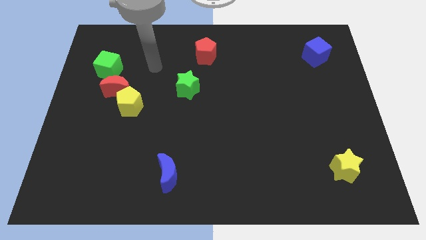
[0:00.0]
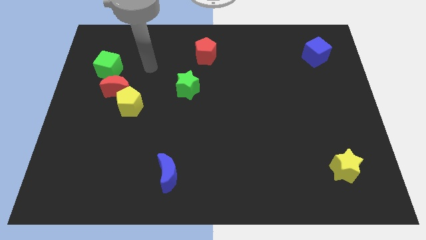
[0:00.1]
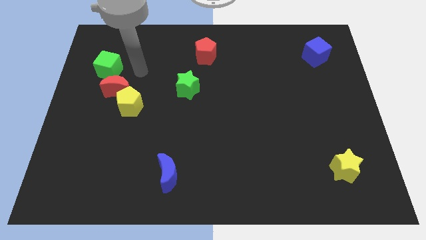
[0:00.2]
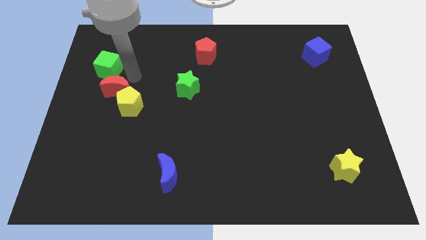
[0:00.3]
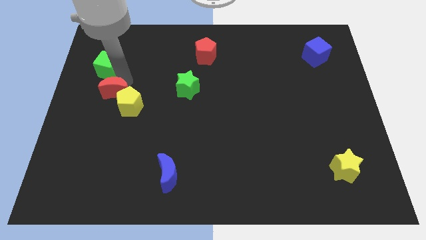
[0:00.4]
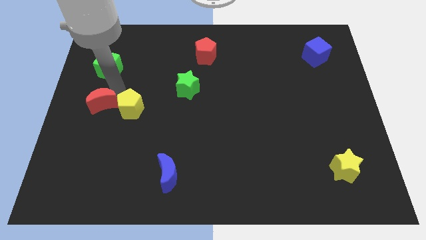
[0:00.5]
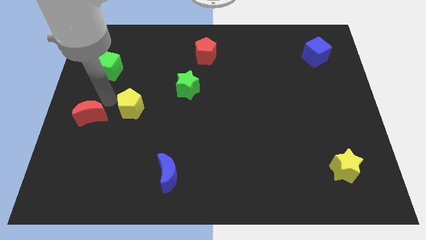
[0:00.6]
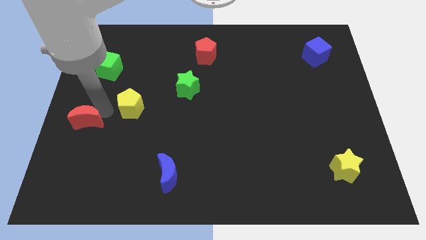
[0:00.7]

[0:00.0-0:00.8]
separate the yellow pentagon from the red moon

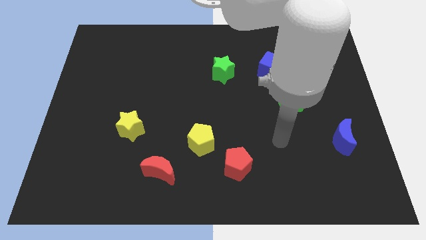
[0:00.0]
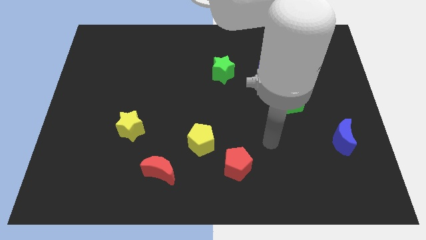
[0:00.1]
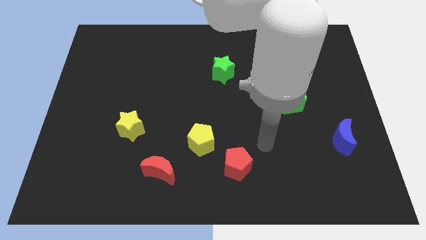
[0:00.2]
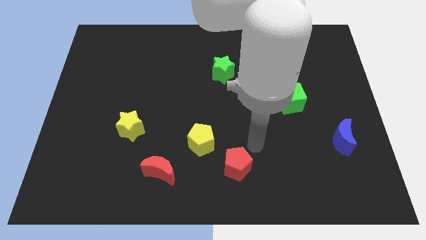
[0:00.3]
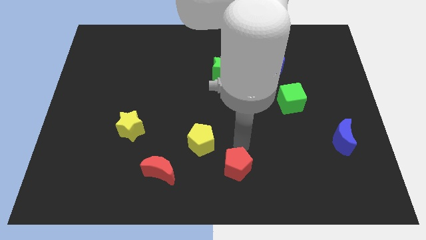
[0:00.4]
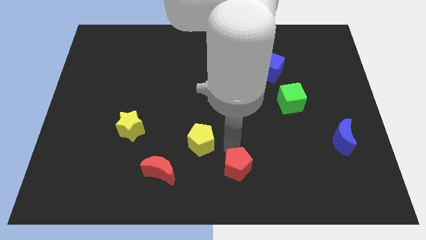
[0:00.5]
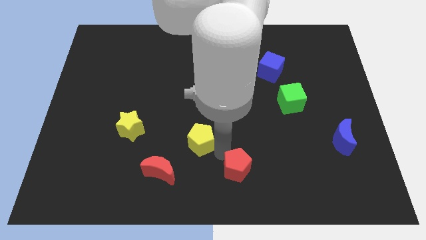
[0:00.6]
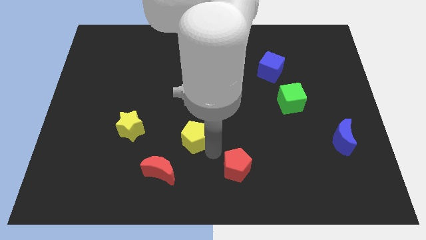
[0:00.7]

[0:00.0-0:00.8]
pull the red pentagon apart from the yellow pentagon

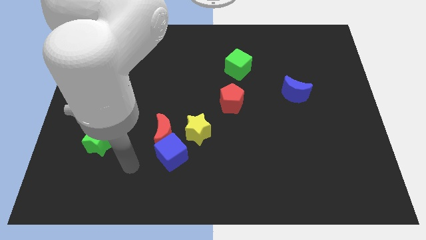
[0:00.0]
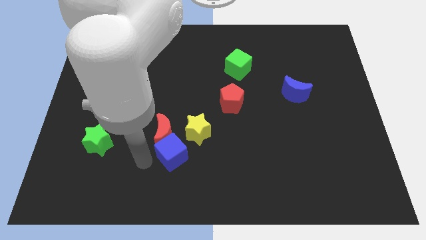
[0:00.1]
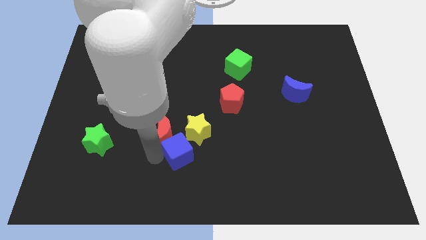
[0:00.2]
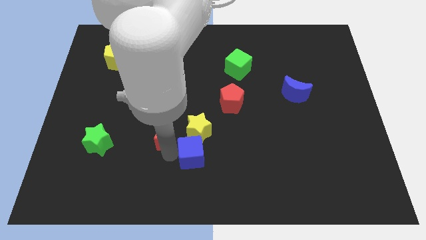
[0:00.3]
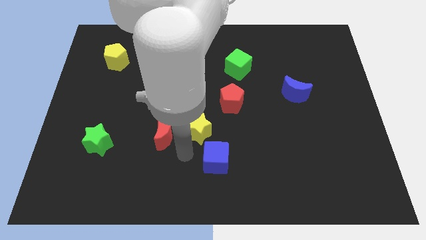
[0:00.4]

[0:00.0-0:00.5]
separate the red moon from the blue cube and yellow star

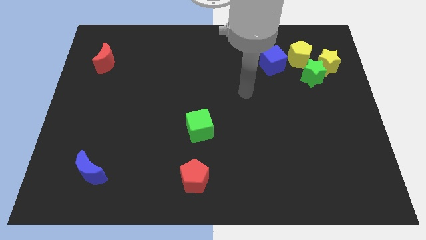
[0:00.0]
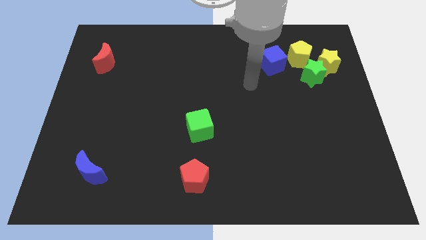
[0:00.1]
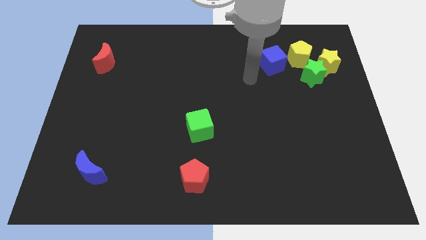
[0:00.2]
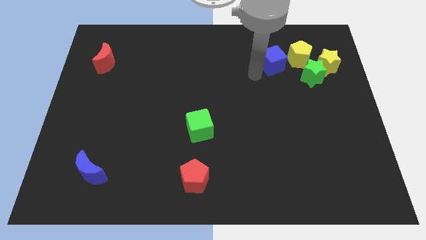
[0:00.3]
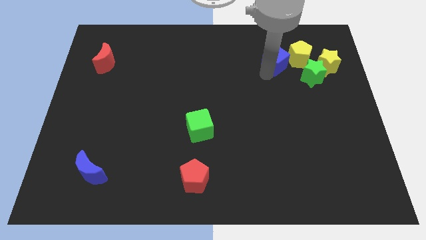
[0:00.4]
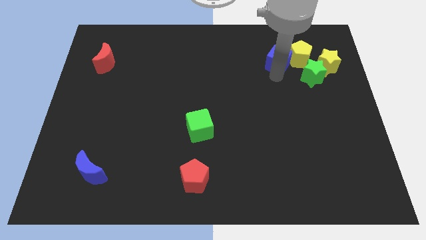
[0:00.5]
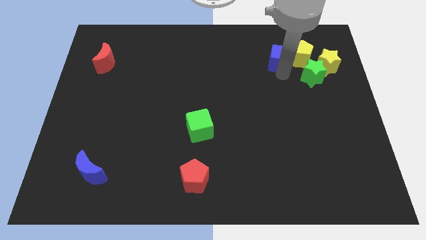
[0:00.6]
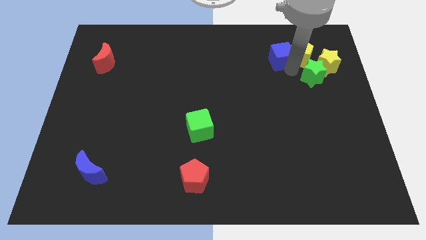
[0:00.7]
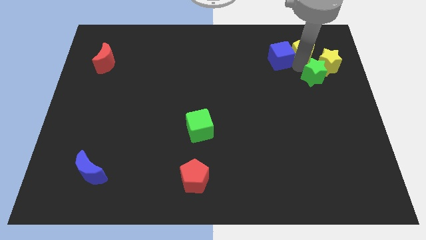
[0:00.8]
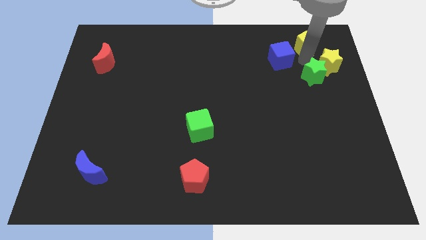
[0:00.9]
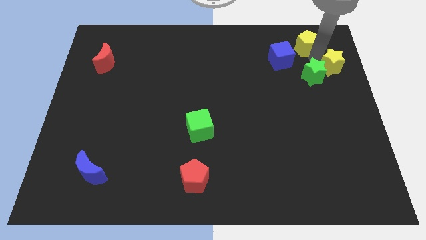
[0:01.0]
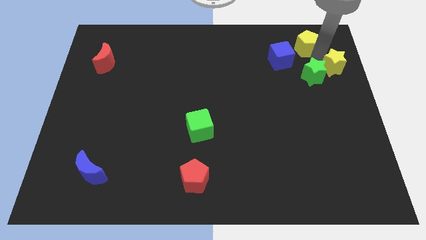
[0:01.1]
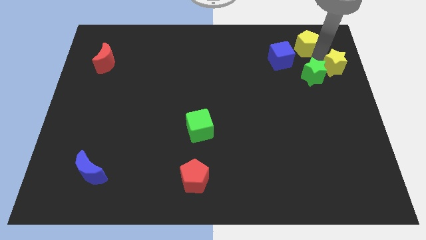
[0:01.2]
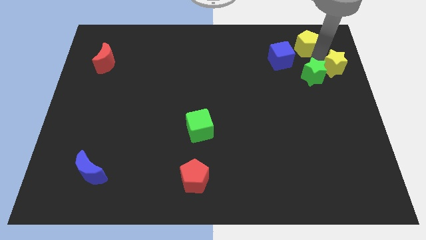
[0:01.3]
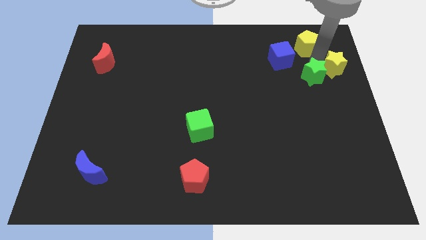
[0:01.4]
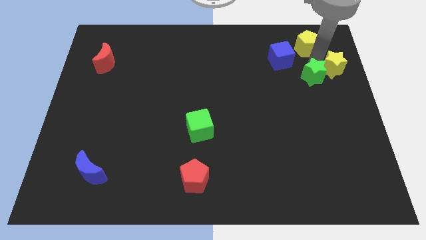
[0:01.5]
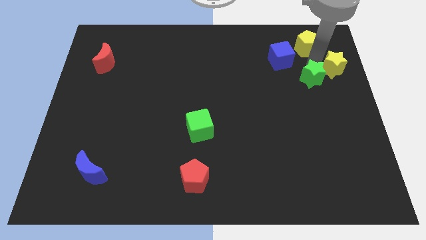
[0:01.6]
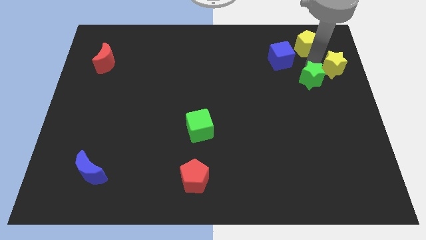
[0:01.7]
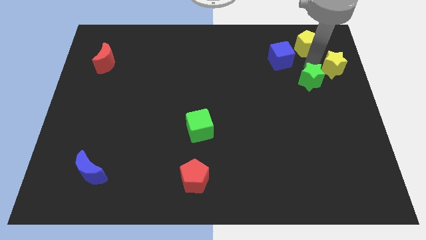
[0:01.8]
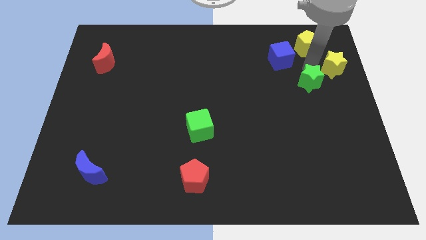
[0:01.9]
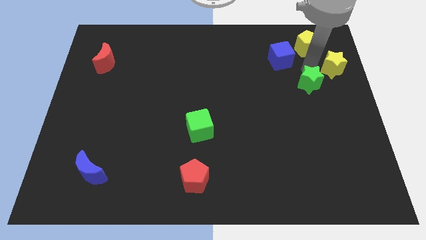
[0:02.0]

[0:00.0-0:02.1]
pull the green star apart from the yellow star and yellow pentagon

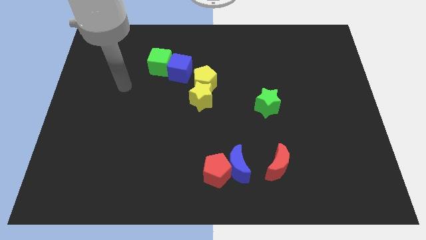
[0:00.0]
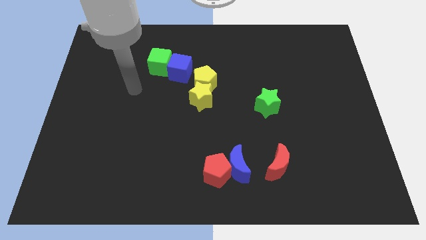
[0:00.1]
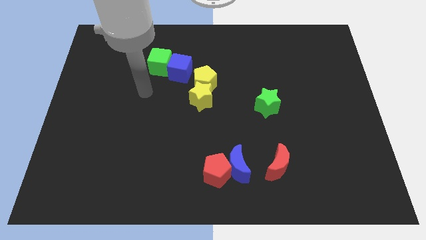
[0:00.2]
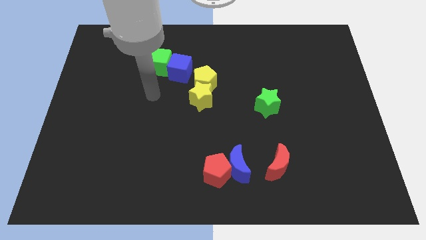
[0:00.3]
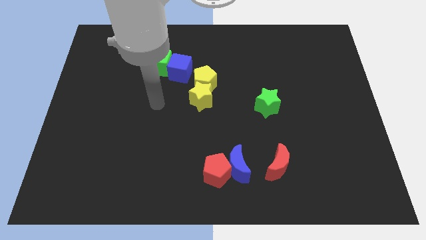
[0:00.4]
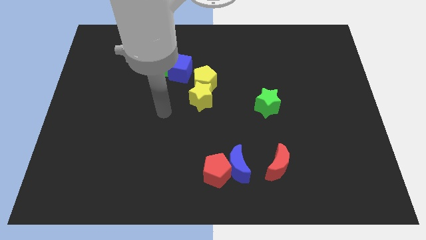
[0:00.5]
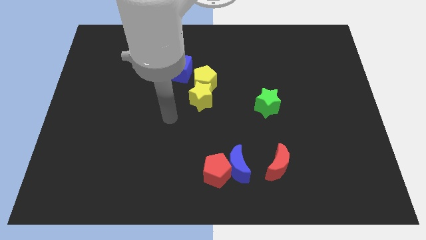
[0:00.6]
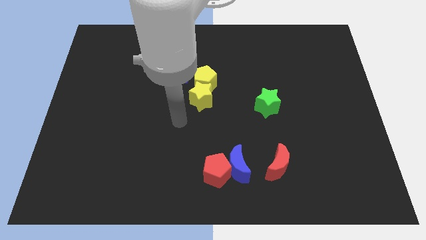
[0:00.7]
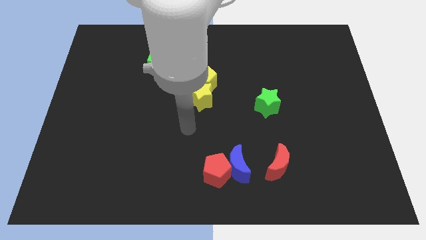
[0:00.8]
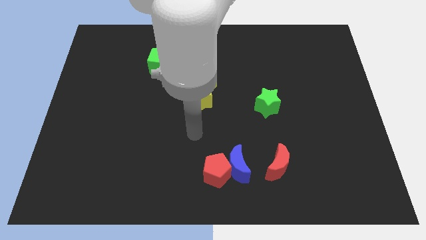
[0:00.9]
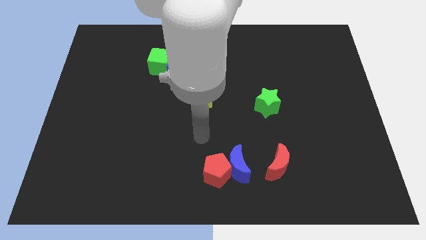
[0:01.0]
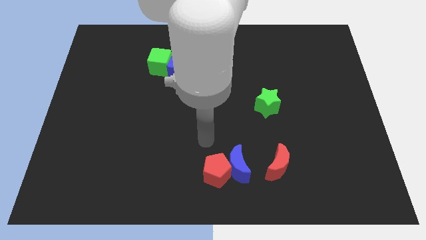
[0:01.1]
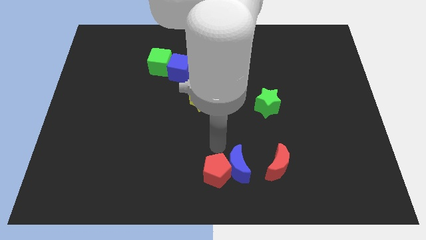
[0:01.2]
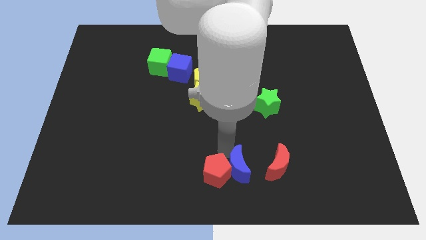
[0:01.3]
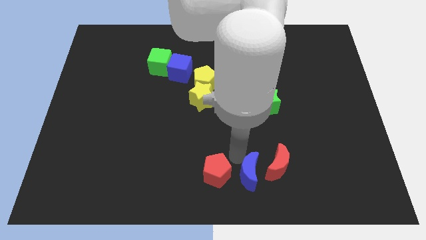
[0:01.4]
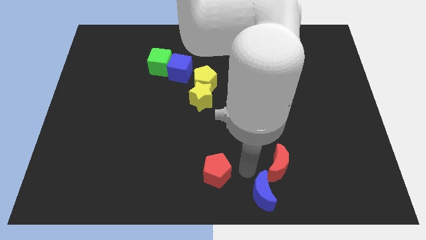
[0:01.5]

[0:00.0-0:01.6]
move the red pentagon away from the blue moon

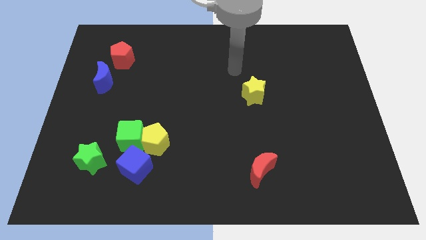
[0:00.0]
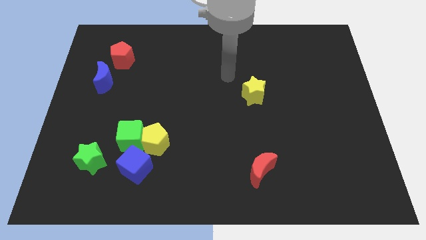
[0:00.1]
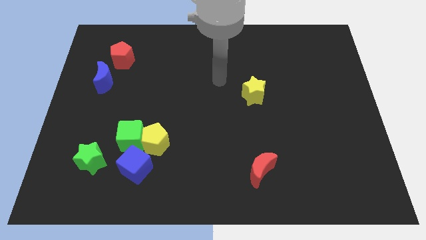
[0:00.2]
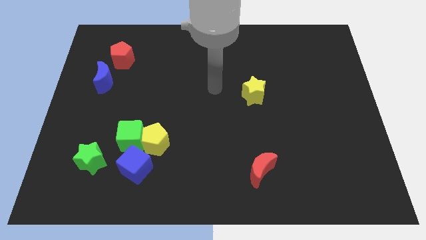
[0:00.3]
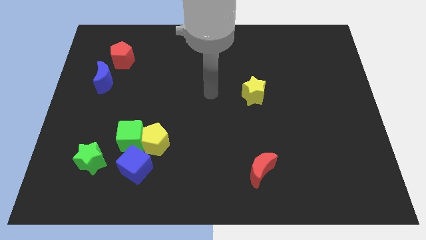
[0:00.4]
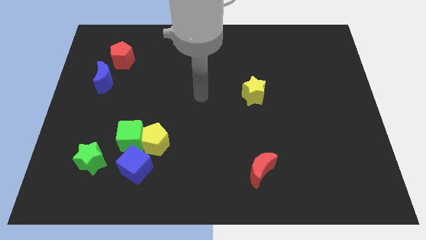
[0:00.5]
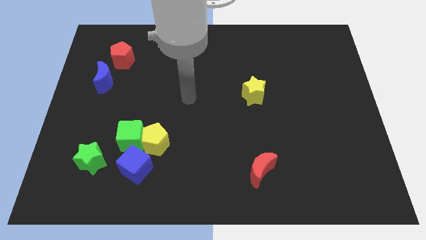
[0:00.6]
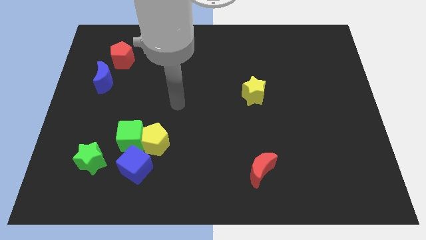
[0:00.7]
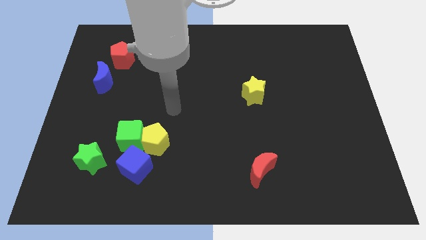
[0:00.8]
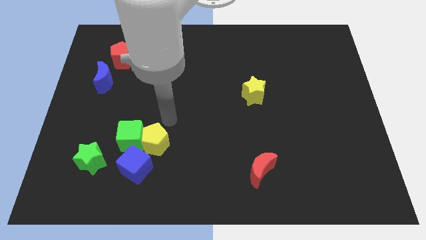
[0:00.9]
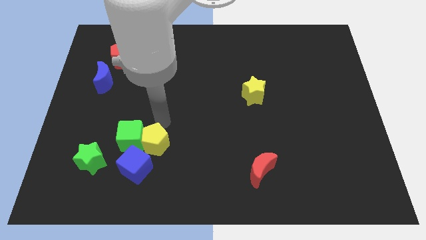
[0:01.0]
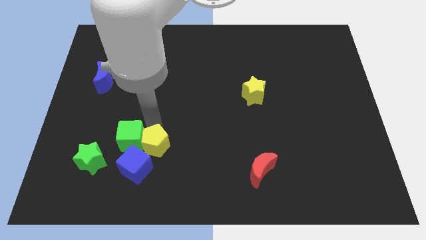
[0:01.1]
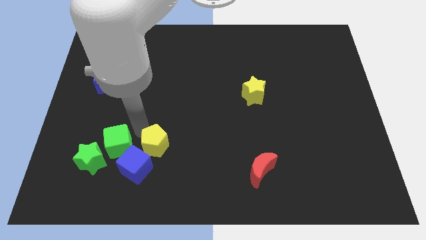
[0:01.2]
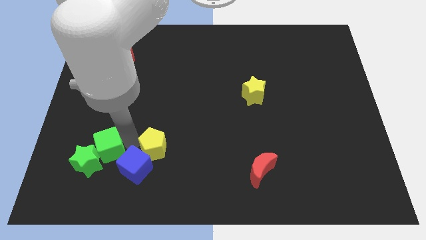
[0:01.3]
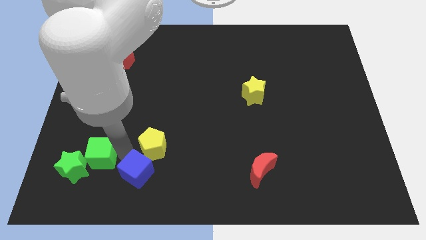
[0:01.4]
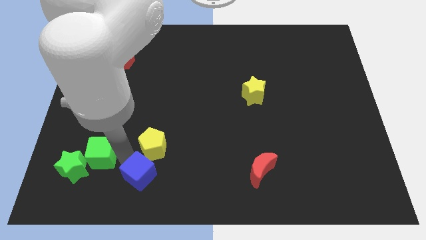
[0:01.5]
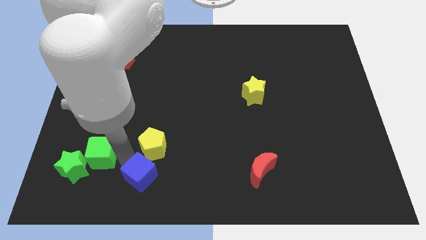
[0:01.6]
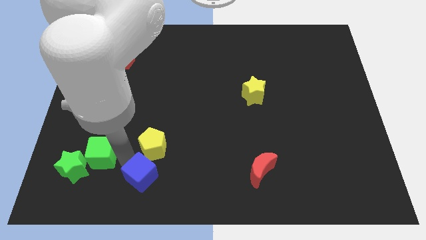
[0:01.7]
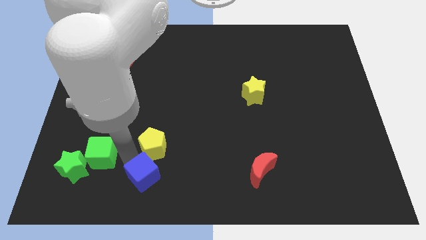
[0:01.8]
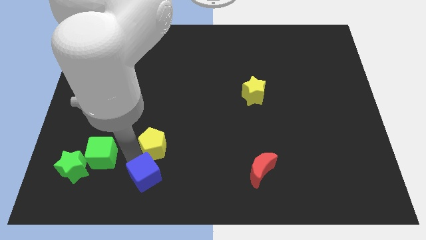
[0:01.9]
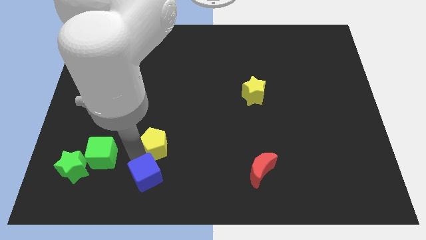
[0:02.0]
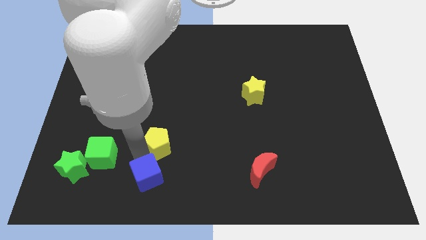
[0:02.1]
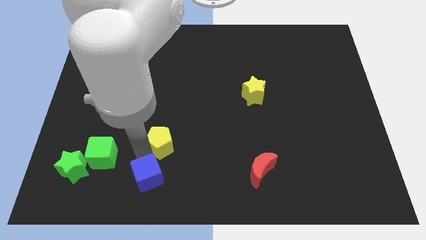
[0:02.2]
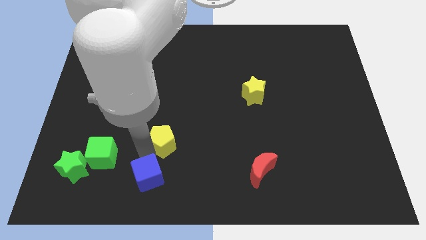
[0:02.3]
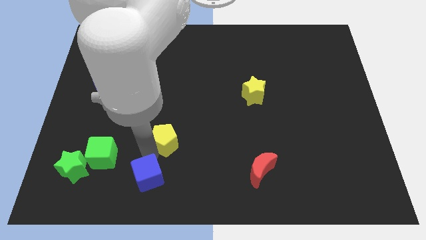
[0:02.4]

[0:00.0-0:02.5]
move the yellow pentagon away from the green cube and blue cube

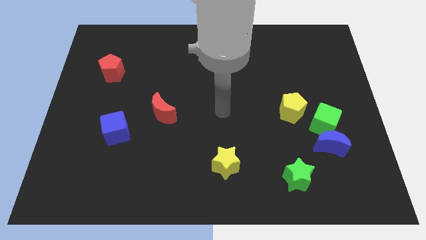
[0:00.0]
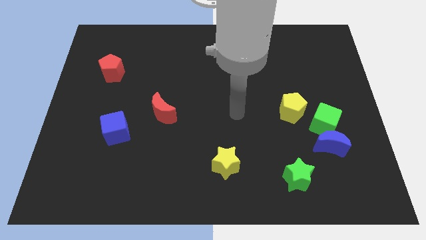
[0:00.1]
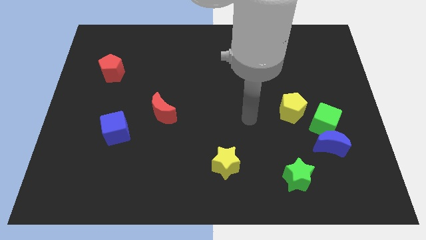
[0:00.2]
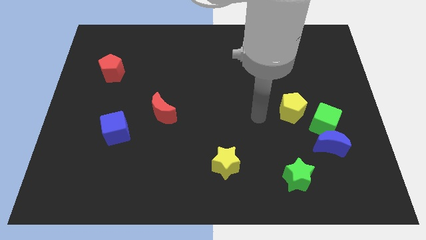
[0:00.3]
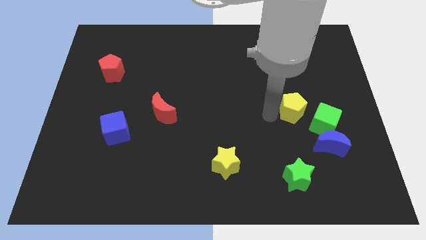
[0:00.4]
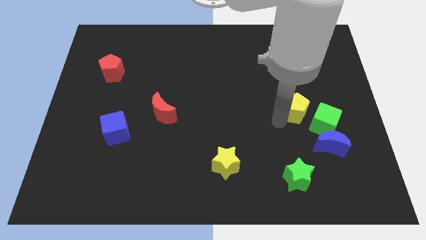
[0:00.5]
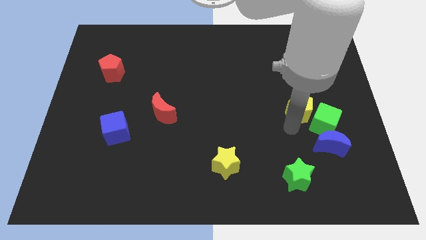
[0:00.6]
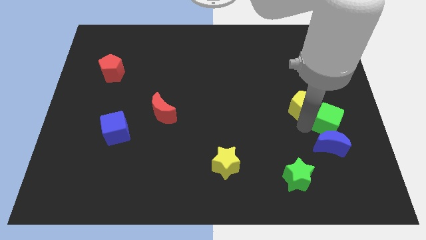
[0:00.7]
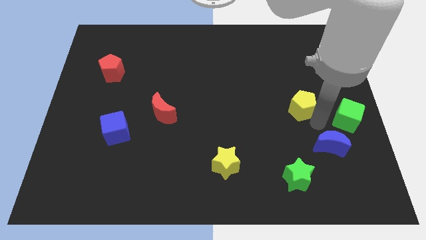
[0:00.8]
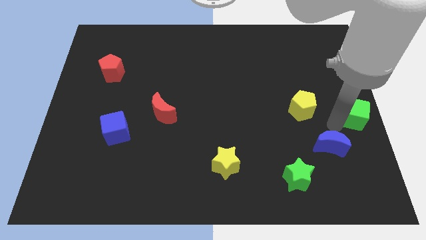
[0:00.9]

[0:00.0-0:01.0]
pull the blue moon apart from the green cube
